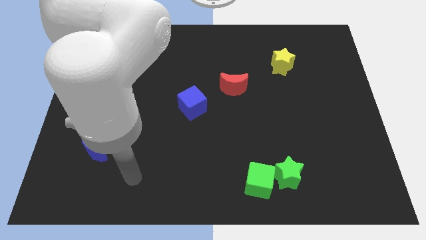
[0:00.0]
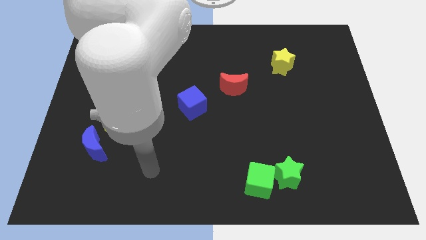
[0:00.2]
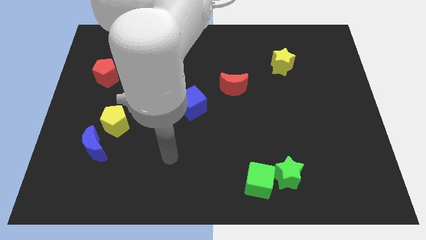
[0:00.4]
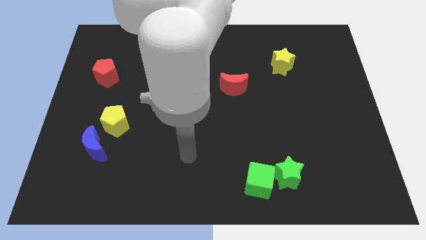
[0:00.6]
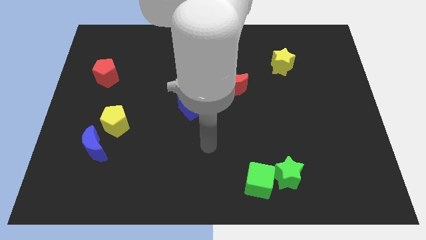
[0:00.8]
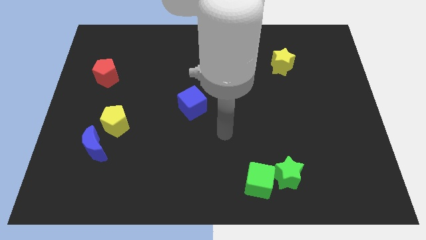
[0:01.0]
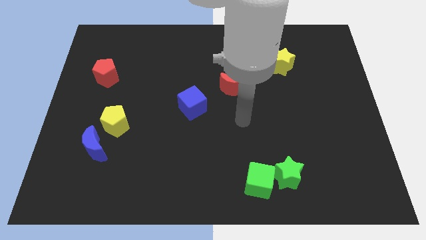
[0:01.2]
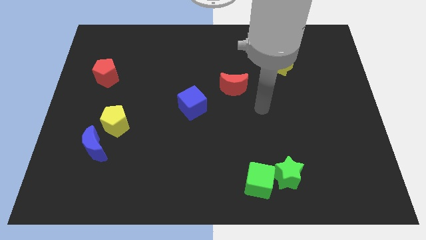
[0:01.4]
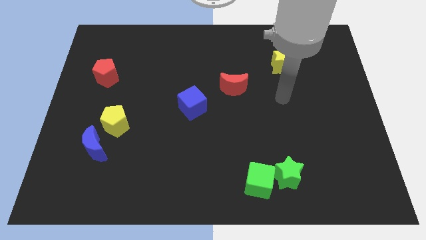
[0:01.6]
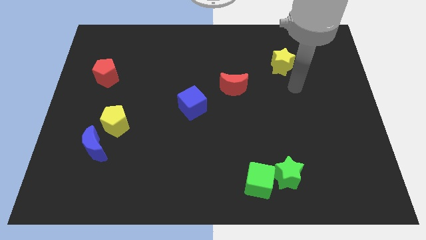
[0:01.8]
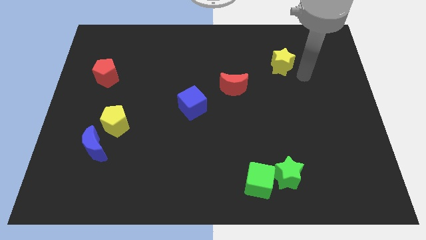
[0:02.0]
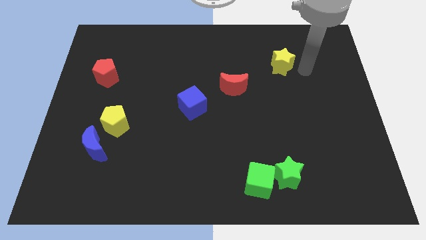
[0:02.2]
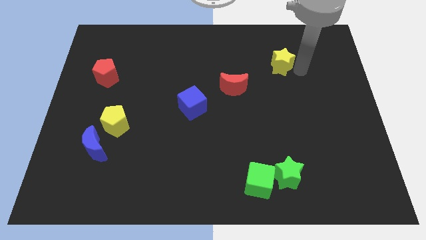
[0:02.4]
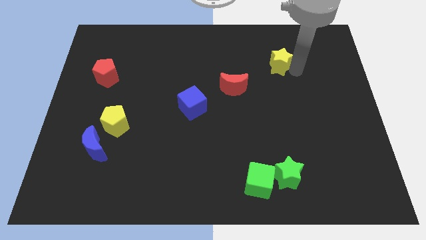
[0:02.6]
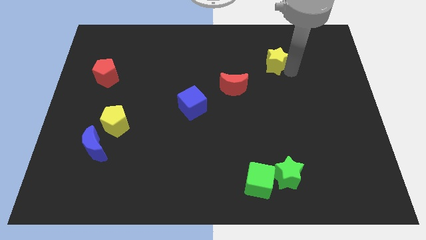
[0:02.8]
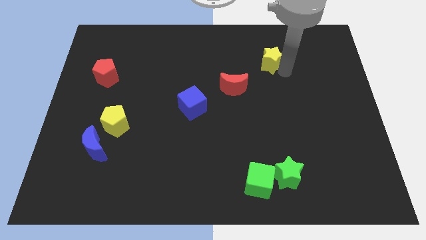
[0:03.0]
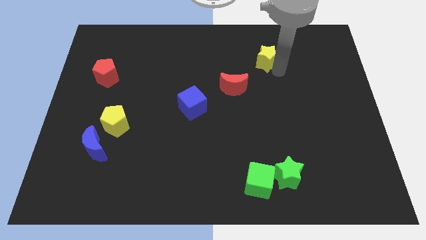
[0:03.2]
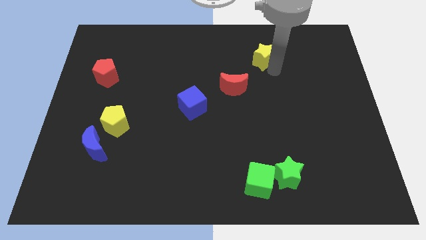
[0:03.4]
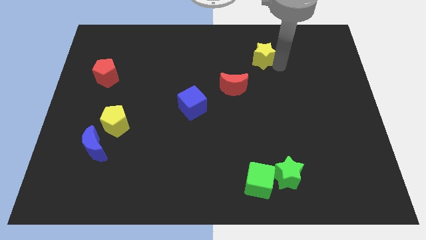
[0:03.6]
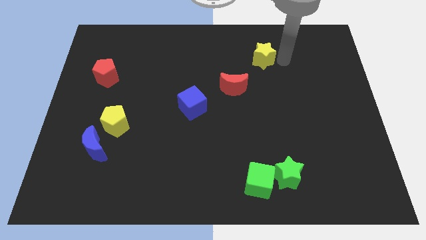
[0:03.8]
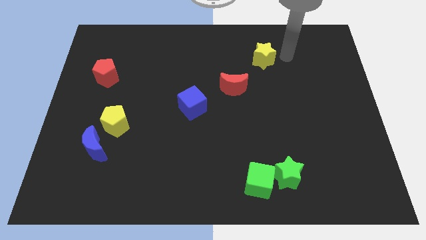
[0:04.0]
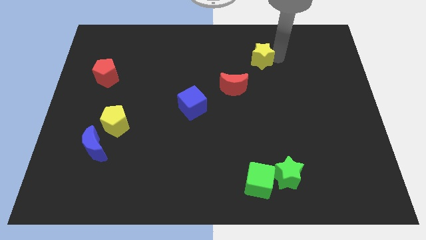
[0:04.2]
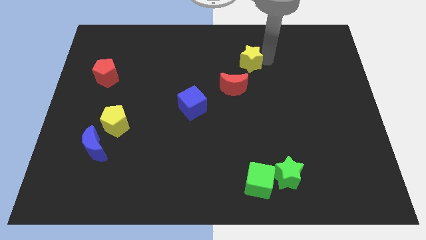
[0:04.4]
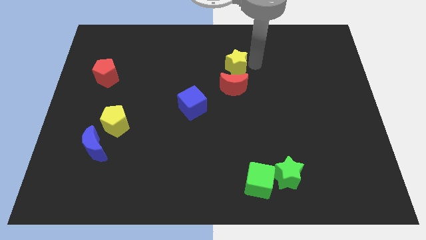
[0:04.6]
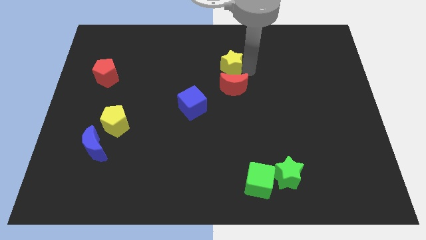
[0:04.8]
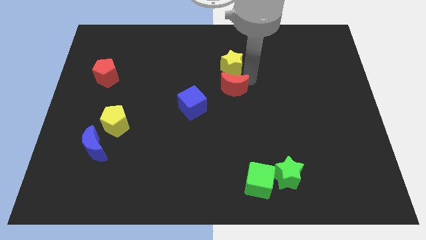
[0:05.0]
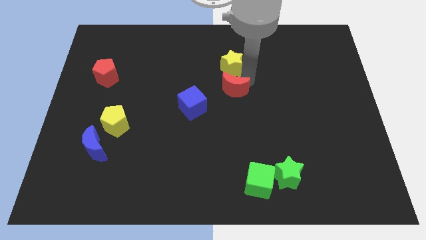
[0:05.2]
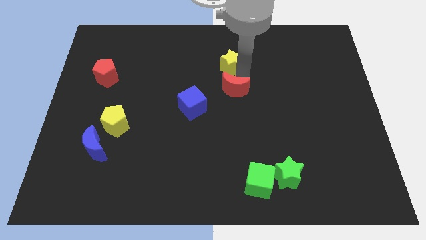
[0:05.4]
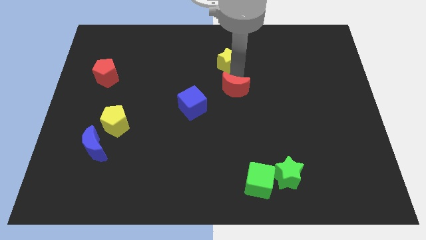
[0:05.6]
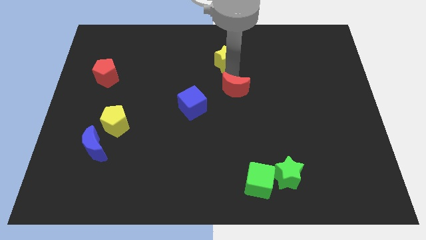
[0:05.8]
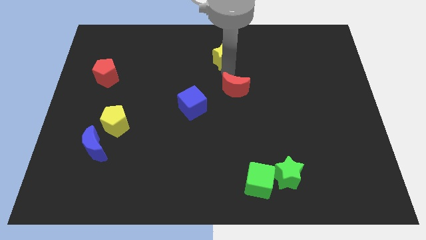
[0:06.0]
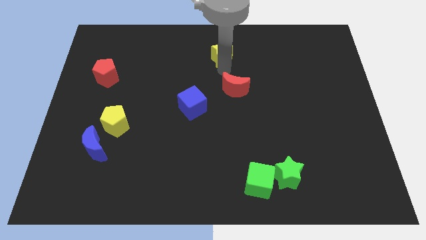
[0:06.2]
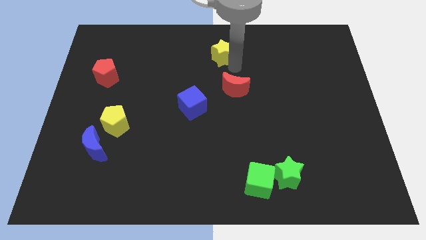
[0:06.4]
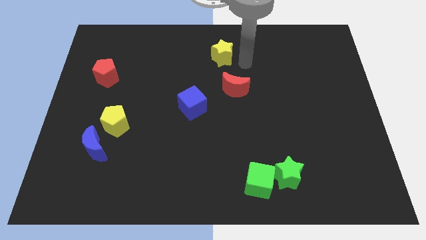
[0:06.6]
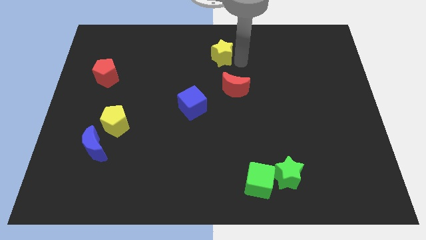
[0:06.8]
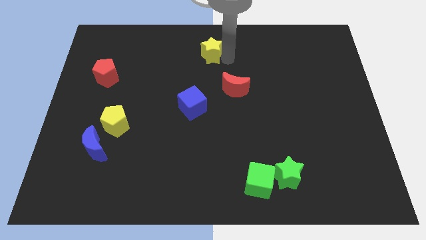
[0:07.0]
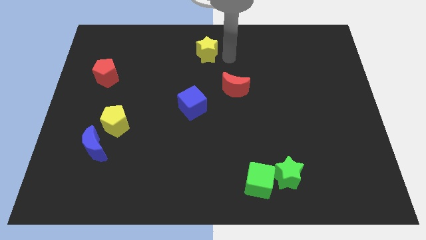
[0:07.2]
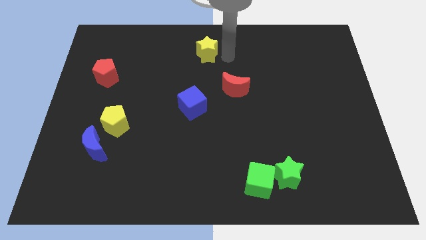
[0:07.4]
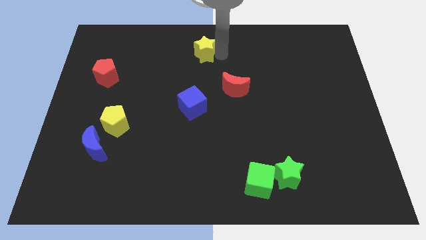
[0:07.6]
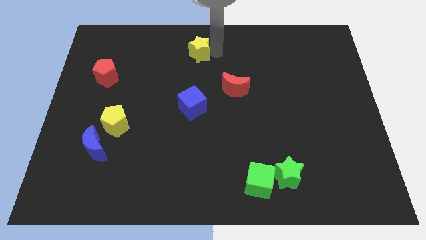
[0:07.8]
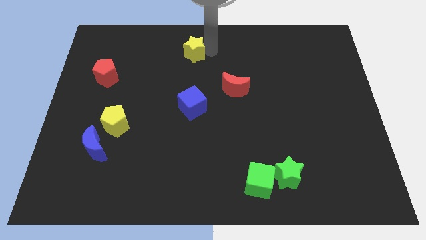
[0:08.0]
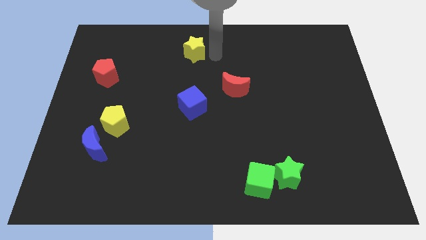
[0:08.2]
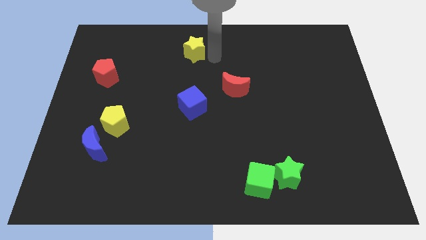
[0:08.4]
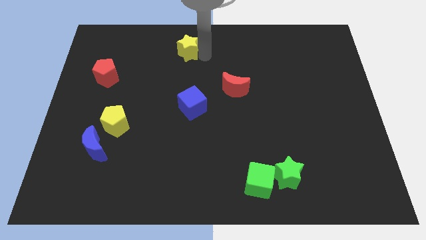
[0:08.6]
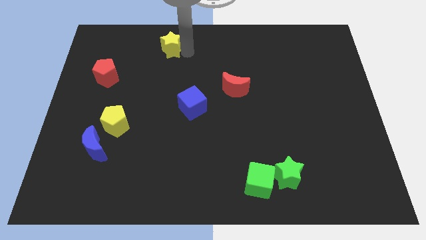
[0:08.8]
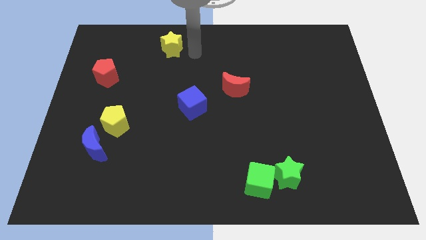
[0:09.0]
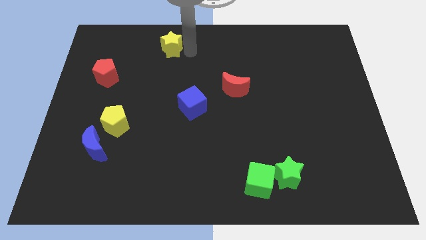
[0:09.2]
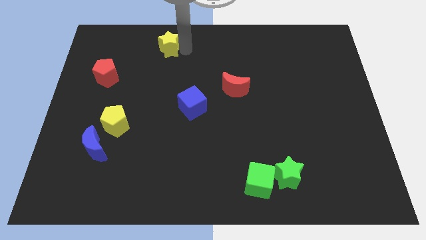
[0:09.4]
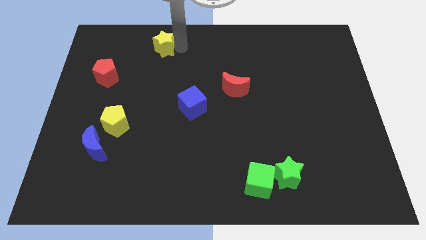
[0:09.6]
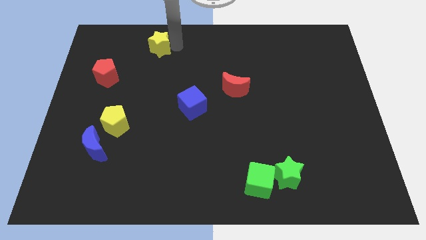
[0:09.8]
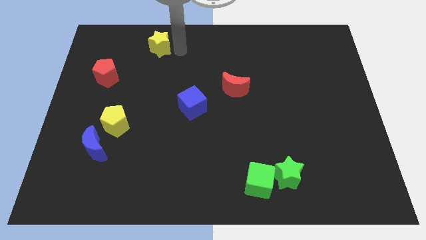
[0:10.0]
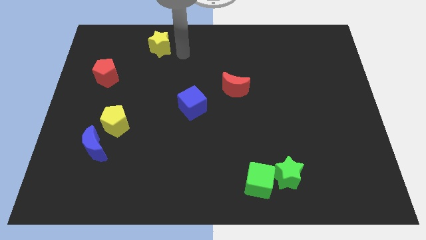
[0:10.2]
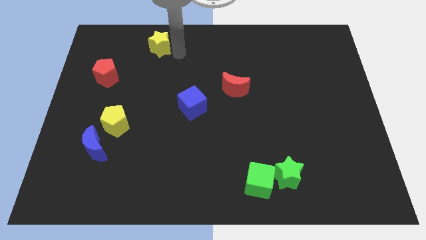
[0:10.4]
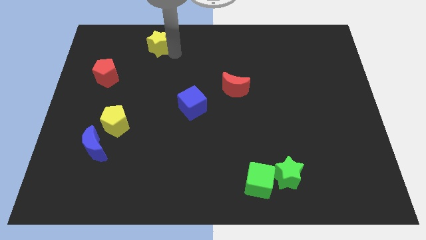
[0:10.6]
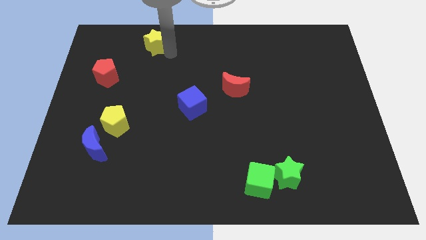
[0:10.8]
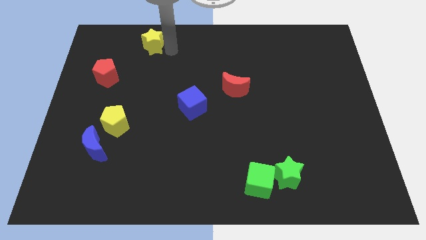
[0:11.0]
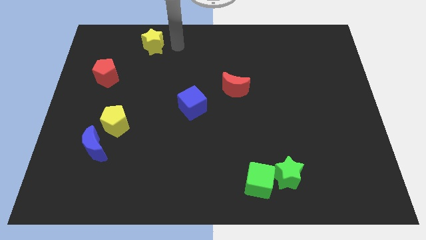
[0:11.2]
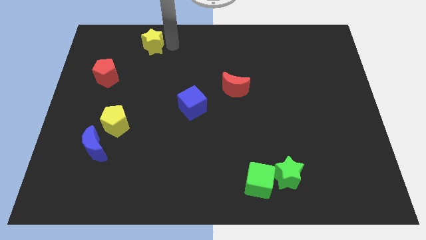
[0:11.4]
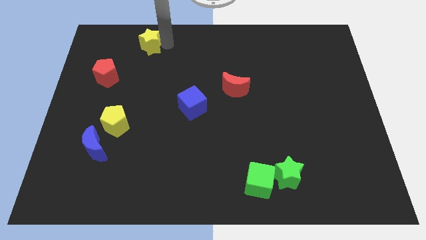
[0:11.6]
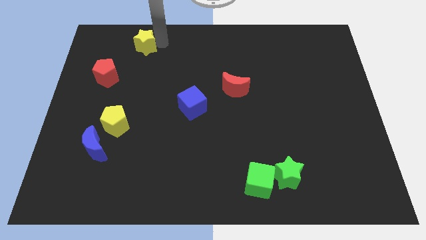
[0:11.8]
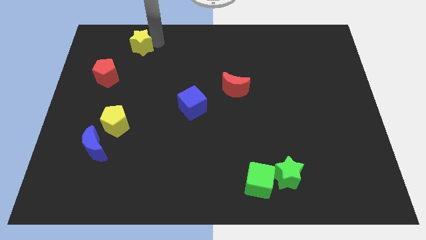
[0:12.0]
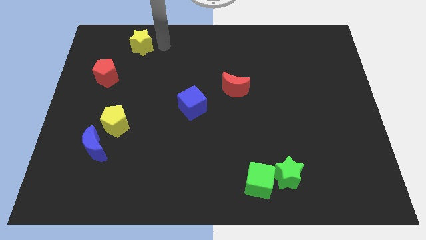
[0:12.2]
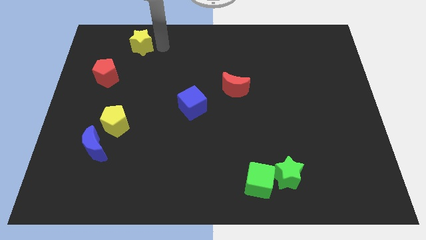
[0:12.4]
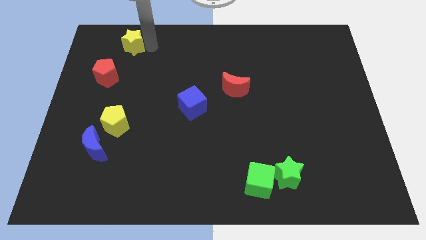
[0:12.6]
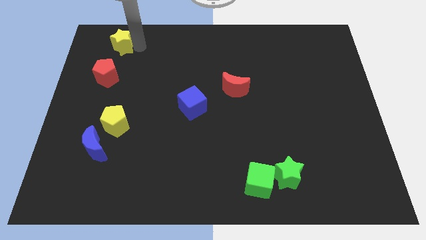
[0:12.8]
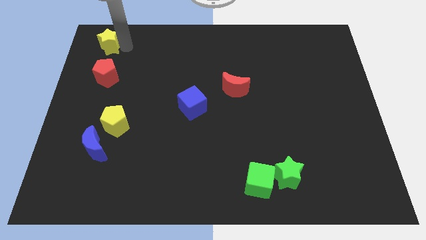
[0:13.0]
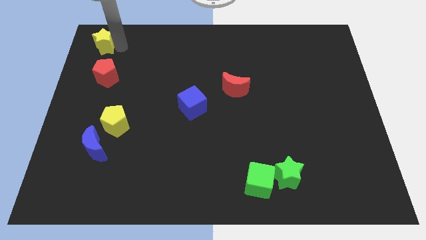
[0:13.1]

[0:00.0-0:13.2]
push the yellow star to the upper left corner
